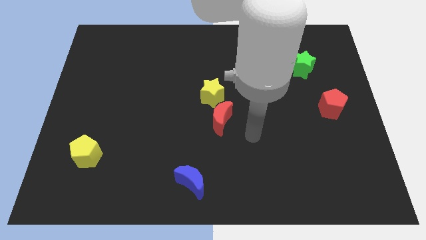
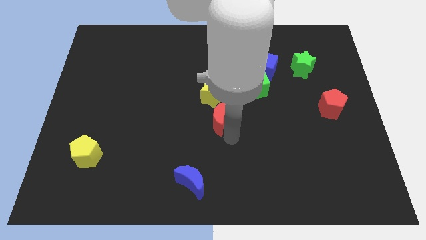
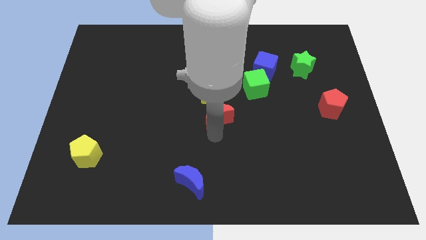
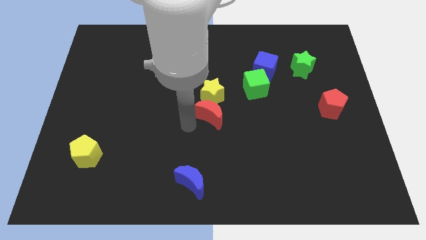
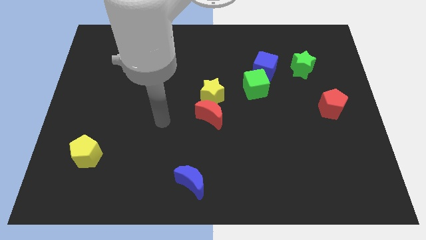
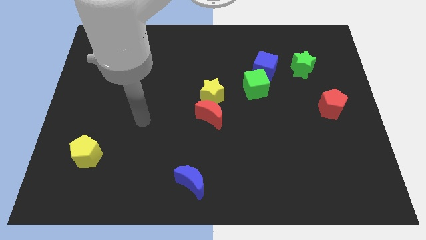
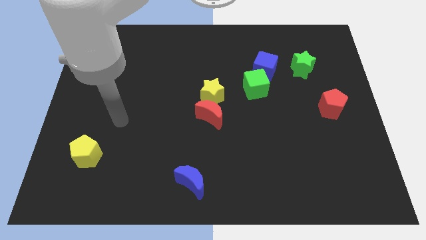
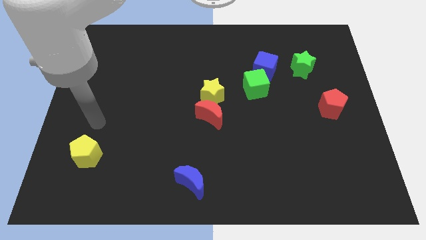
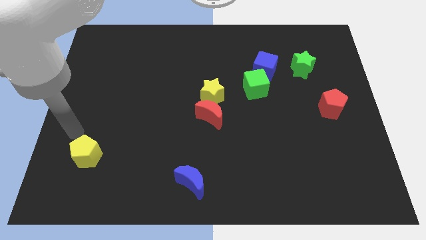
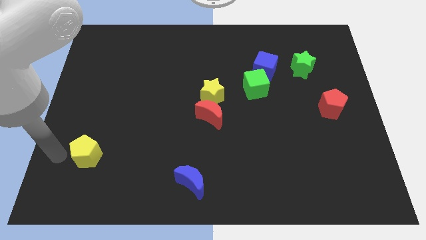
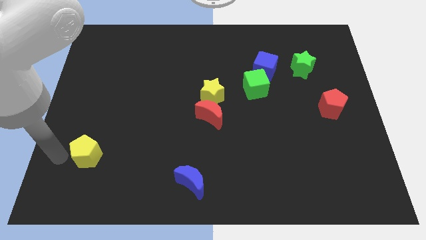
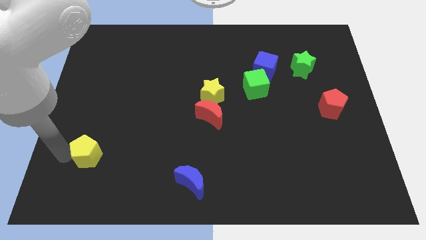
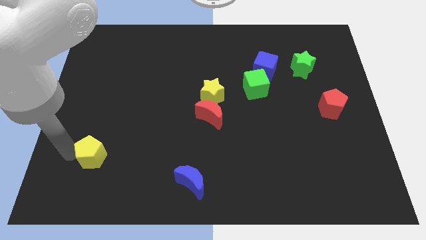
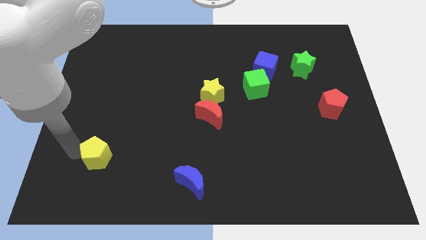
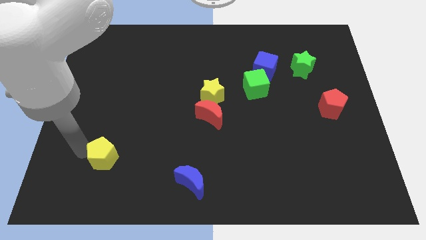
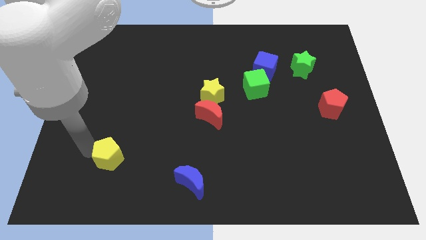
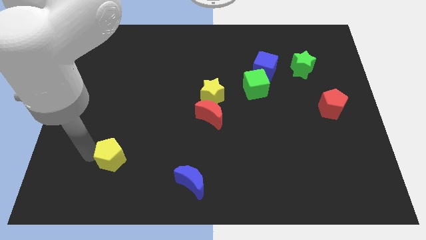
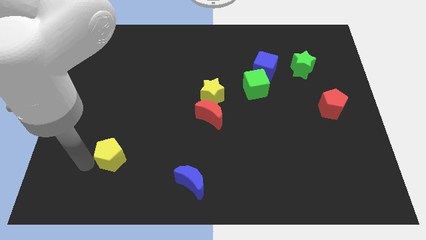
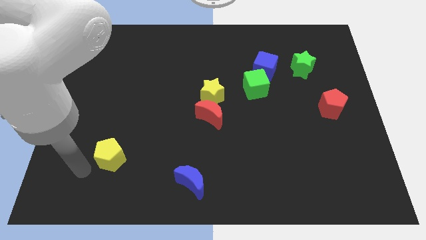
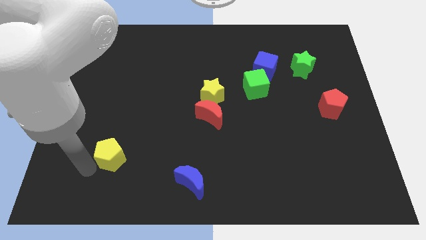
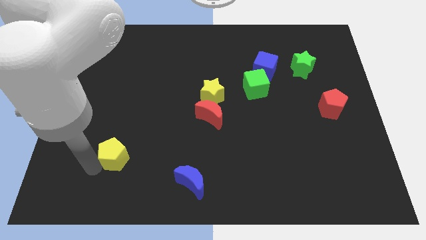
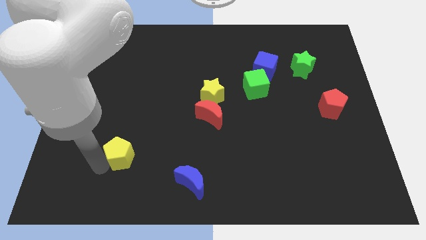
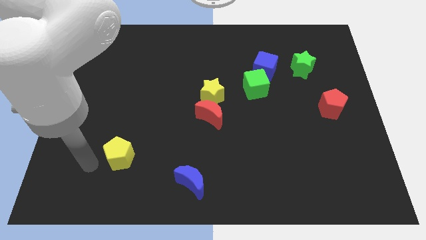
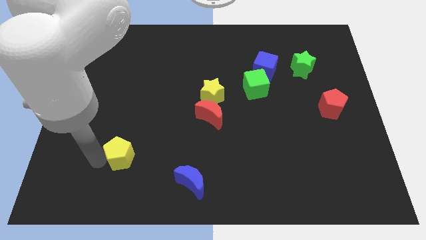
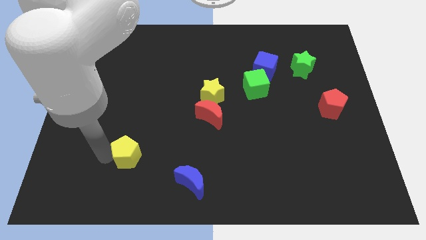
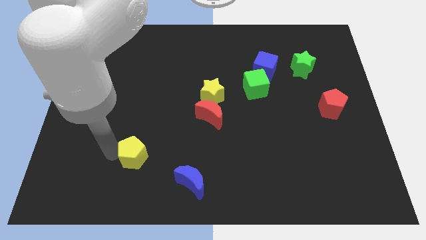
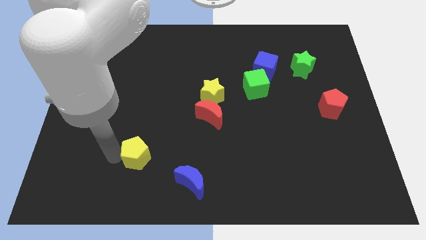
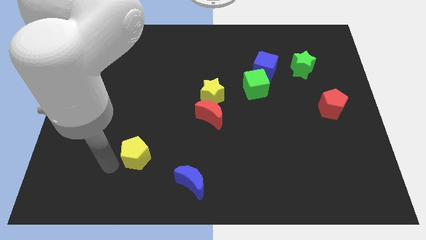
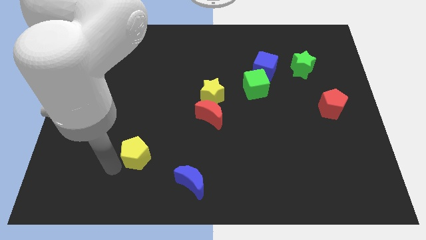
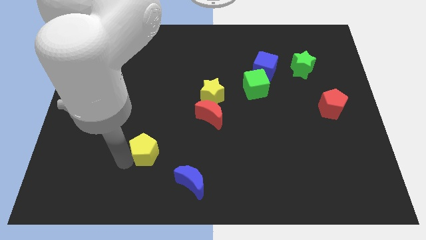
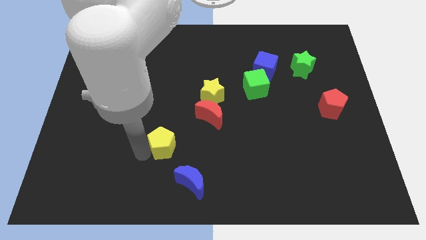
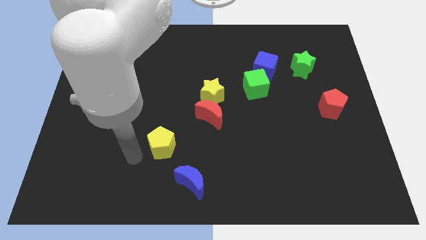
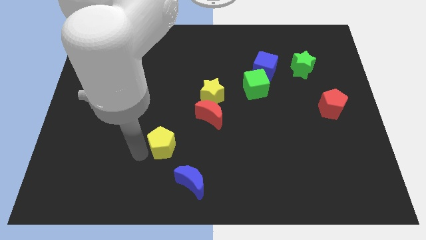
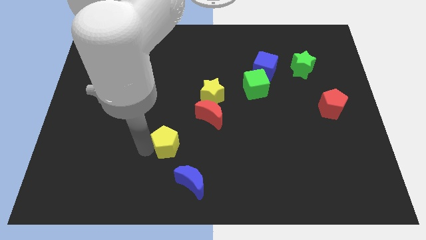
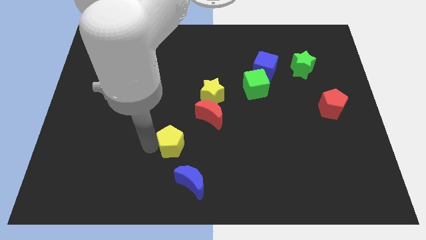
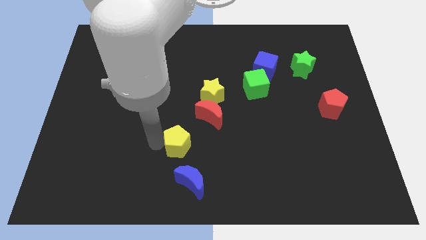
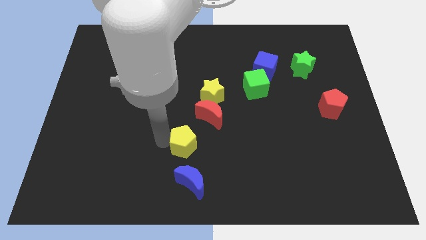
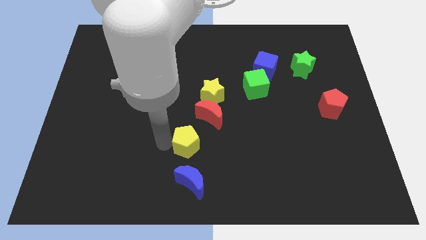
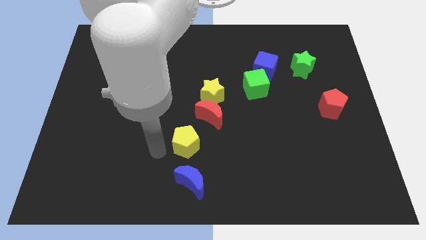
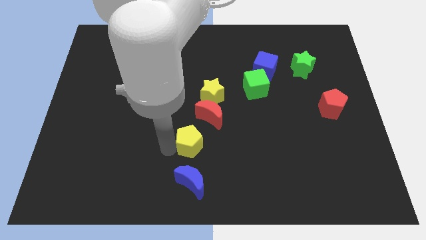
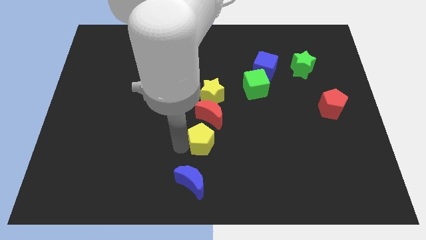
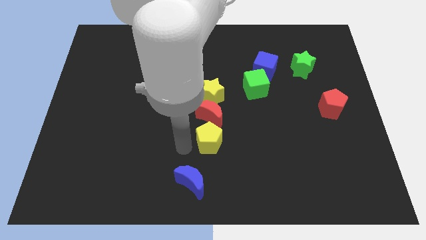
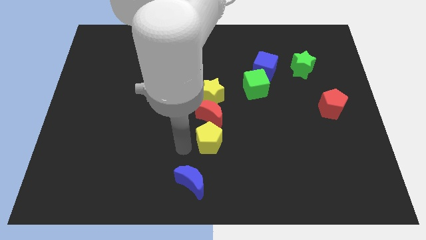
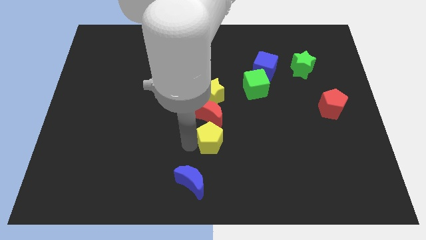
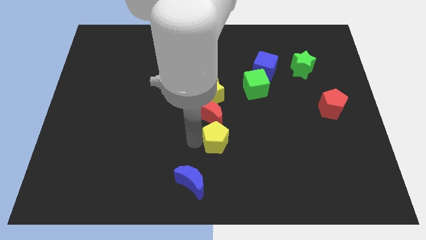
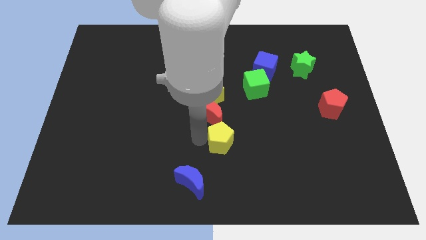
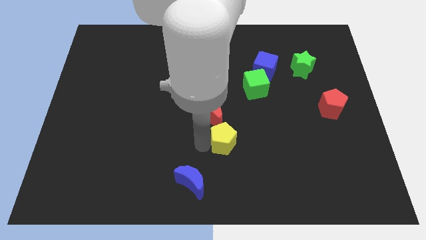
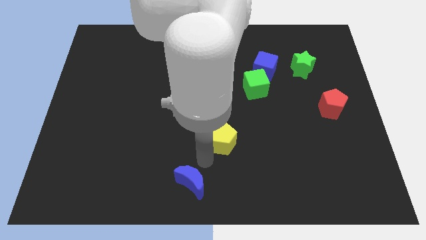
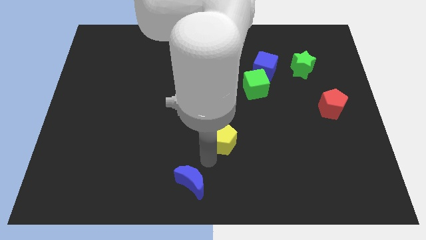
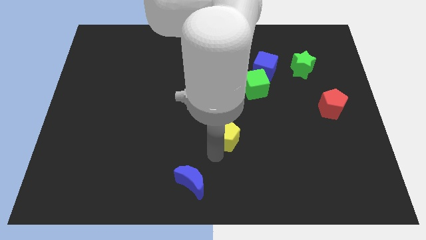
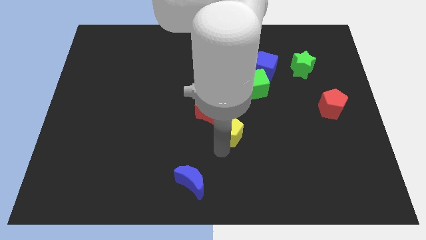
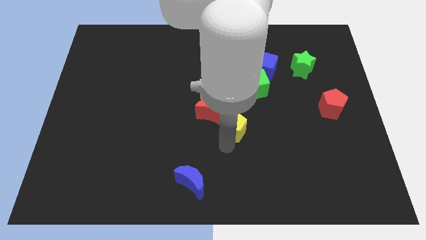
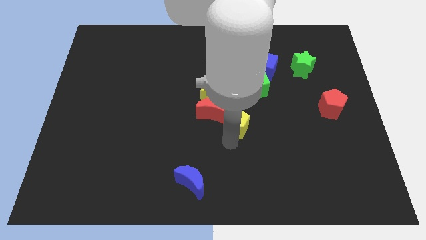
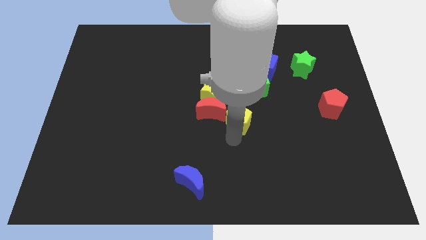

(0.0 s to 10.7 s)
put the yellow pentagon to the bottom left side of the green cube

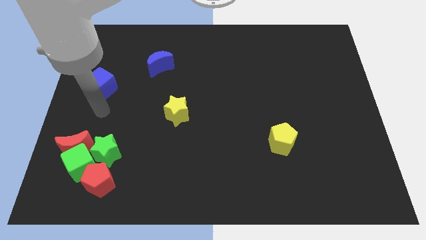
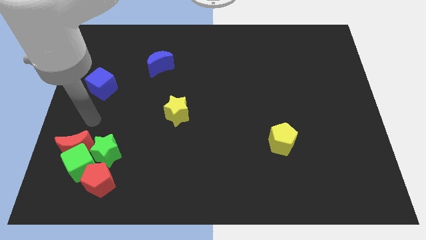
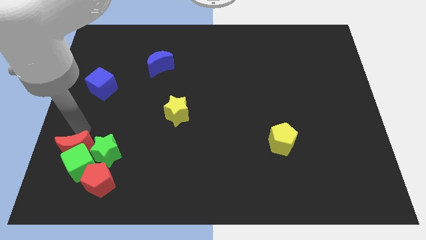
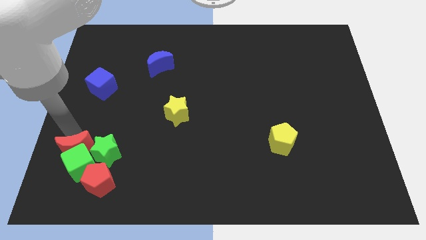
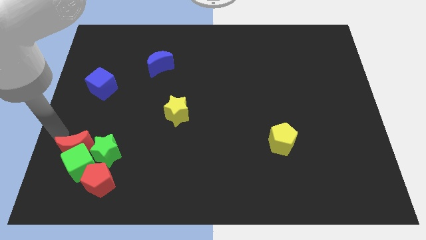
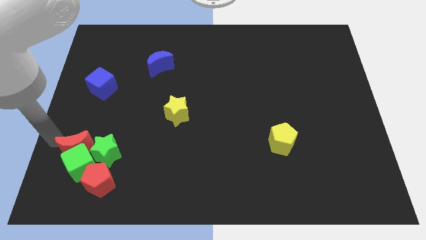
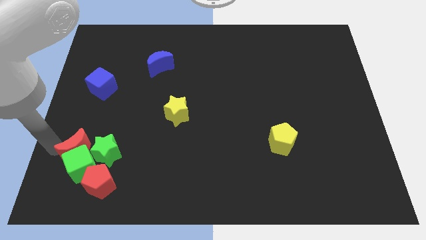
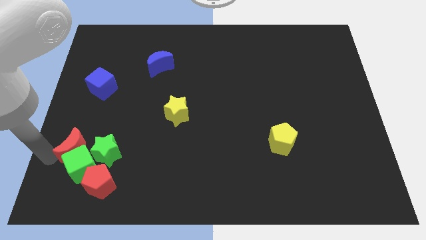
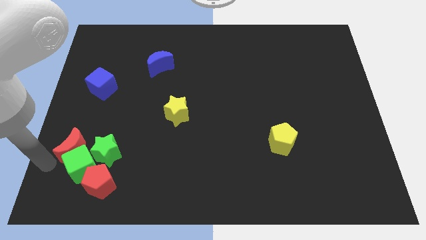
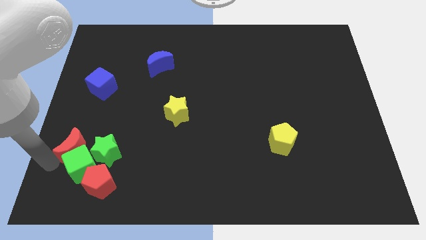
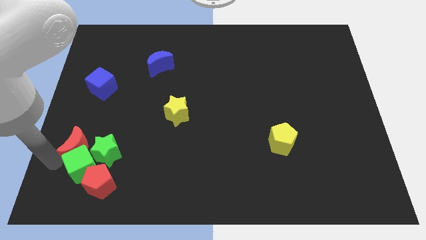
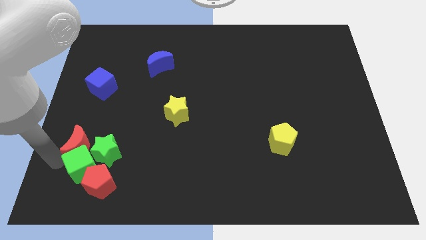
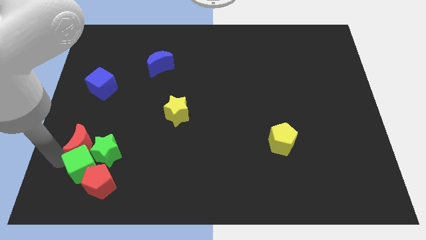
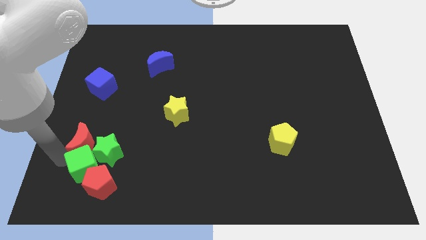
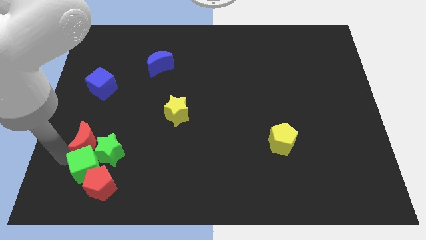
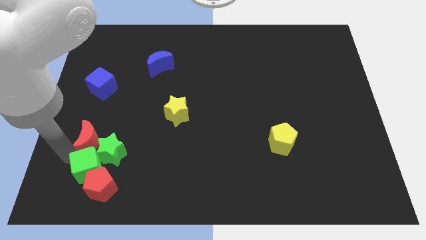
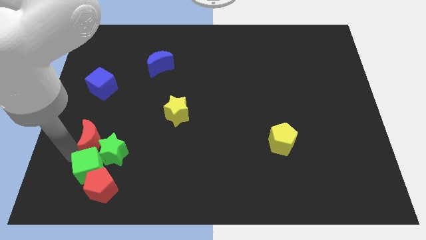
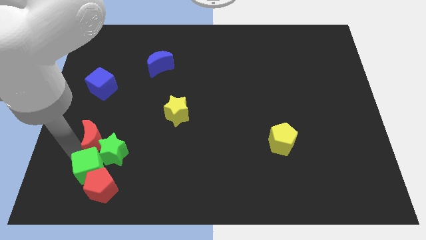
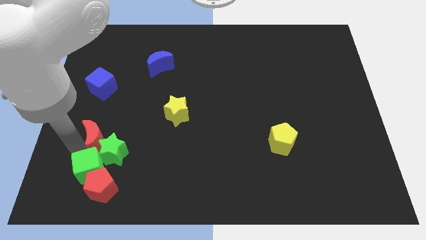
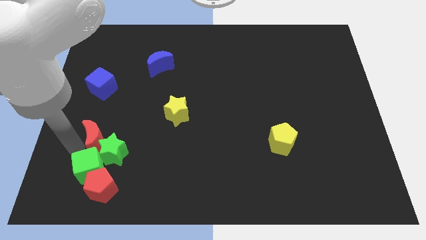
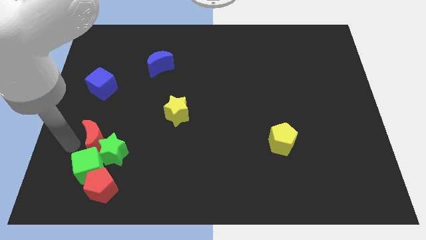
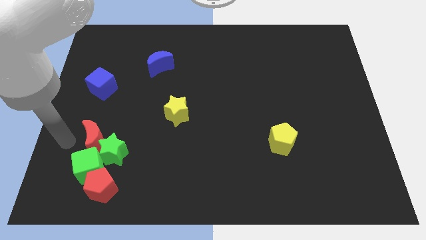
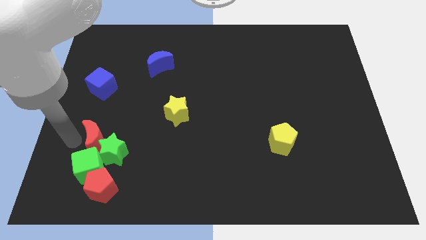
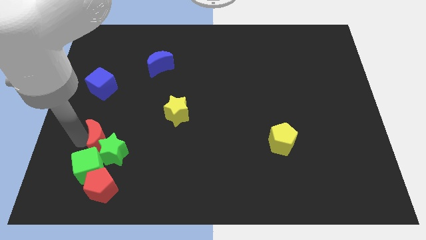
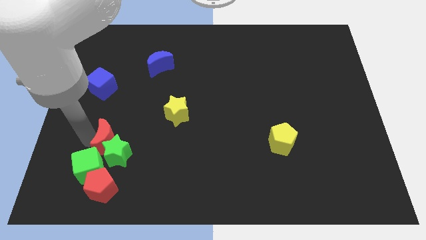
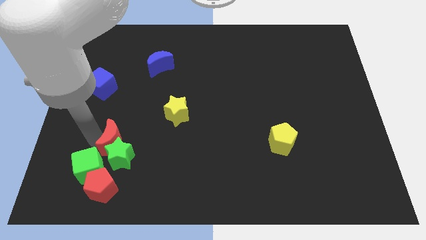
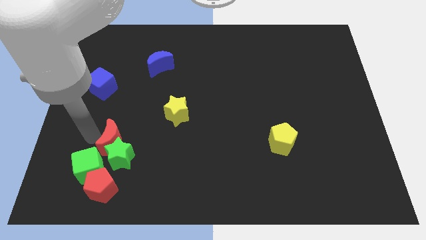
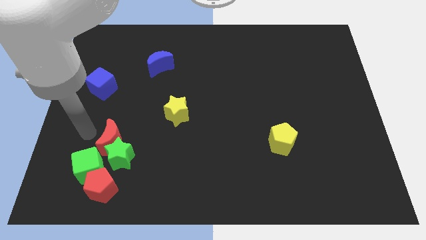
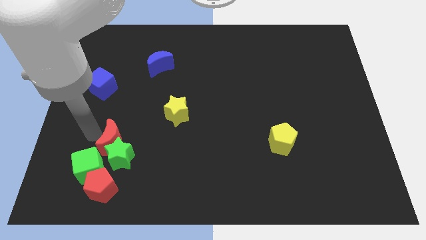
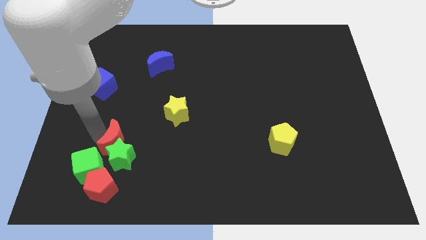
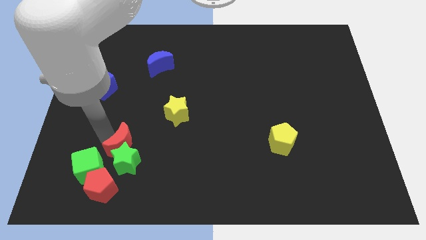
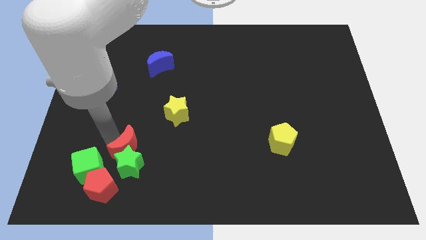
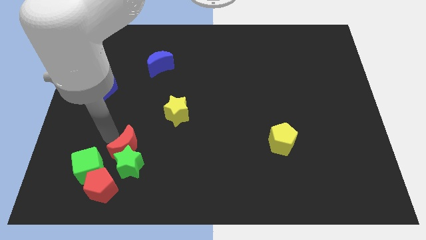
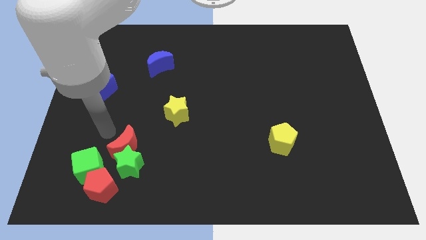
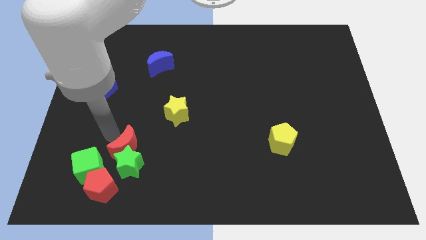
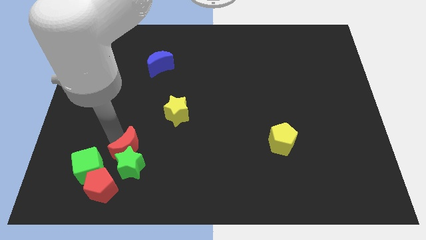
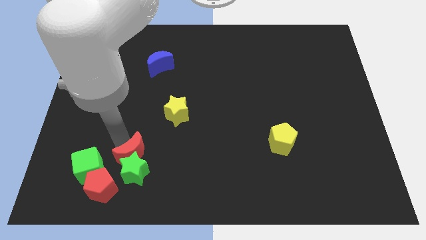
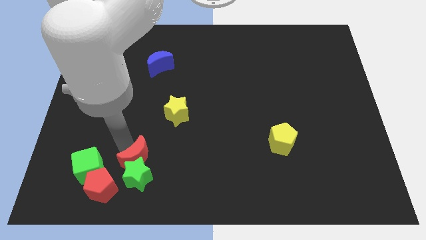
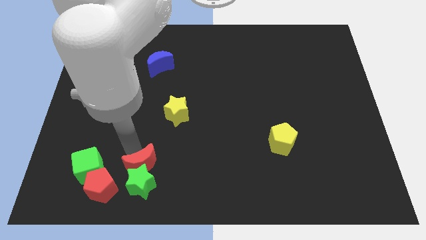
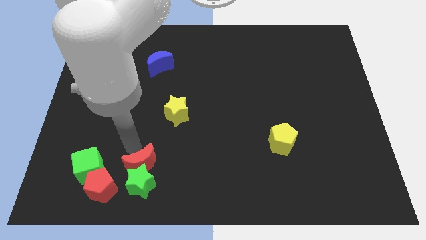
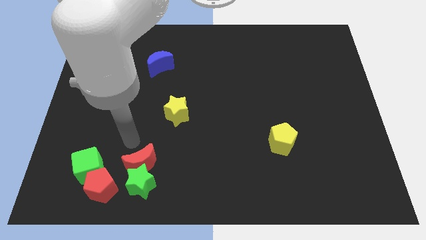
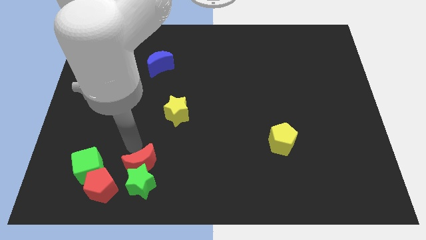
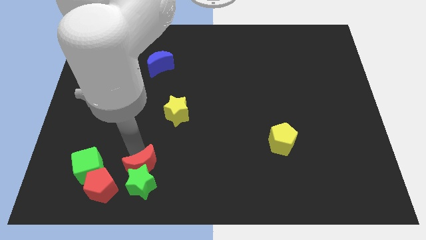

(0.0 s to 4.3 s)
push the red moon right of the red pentagon
